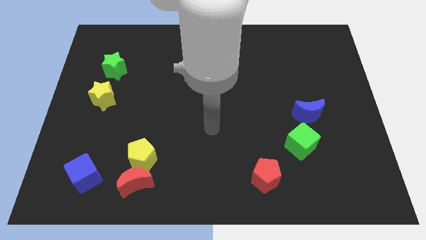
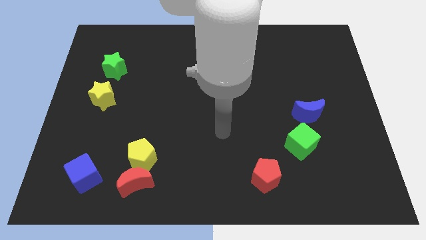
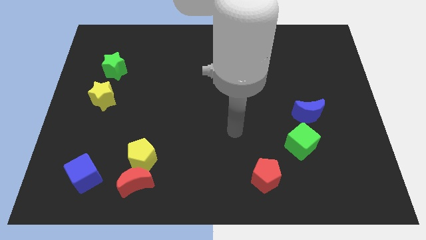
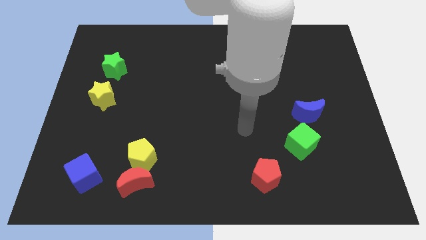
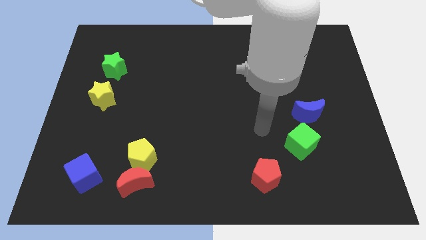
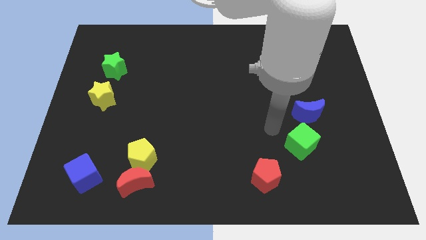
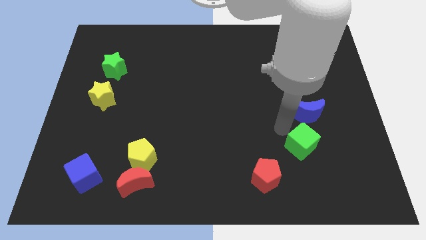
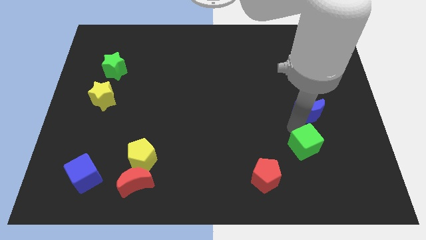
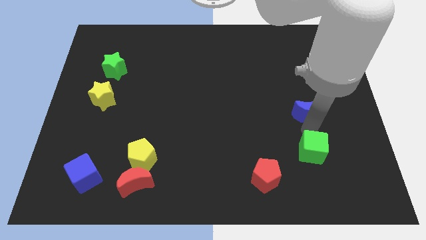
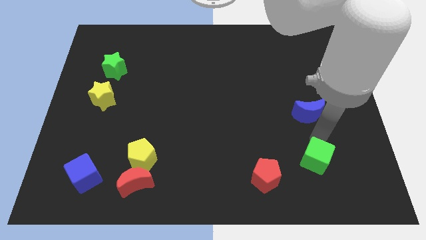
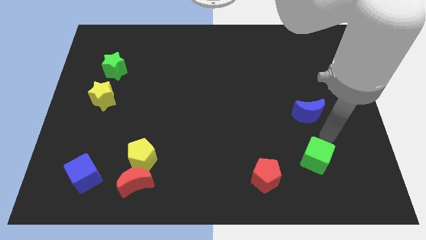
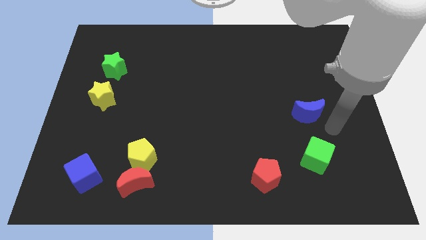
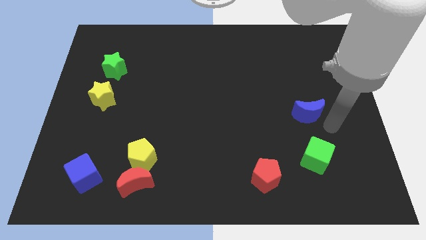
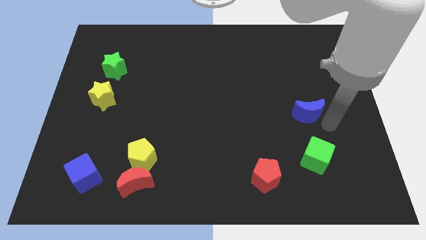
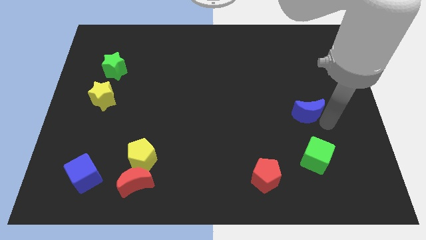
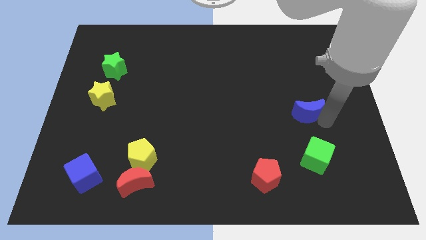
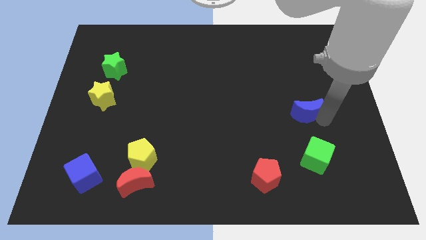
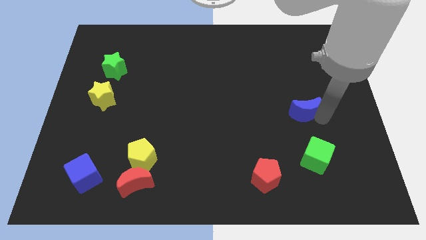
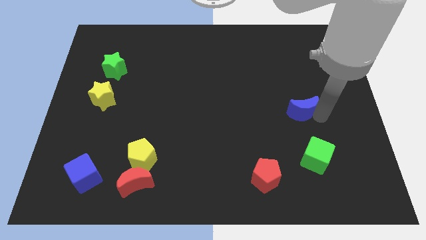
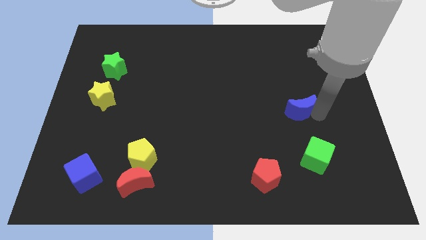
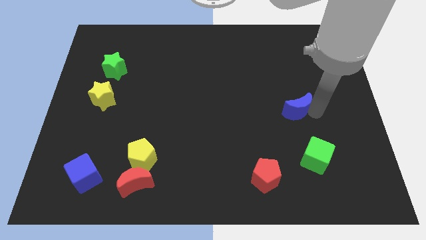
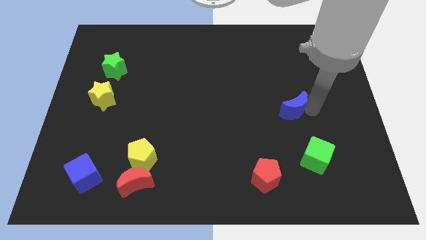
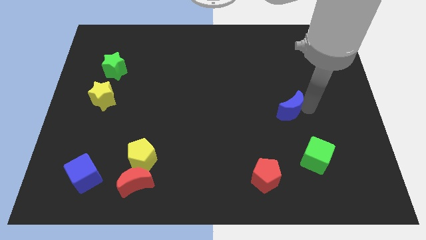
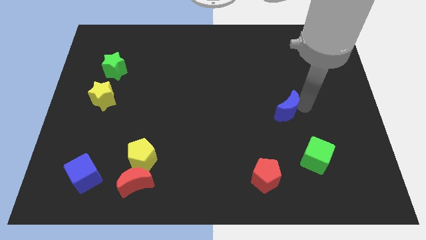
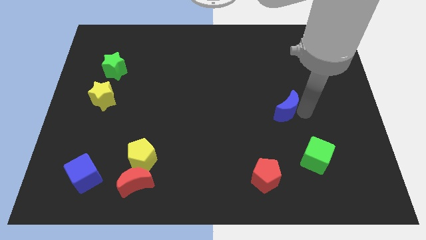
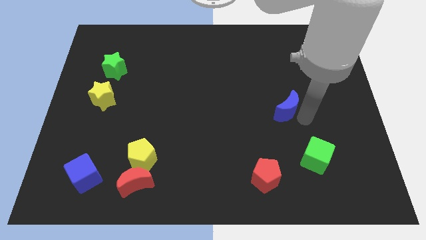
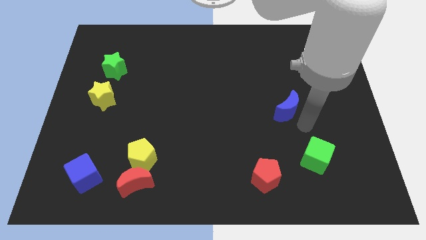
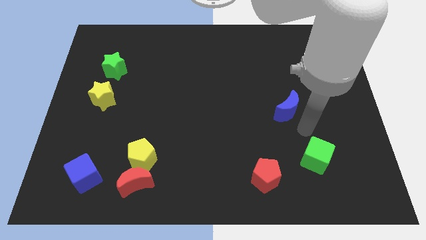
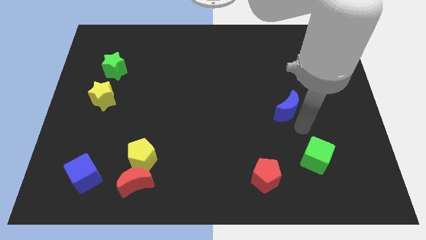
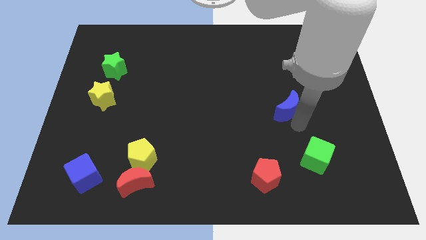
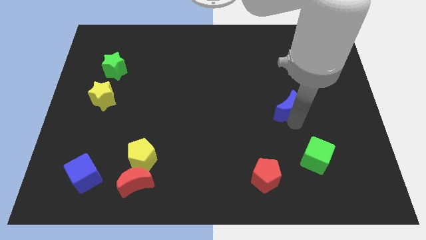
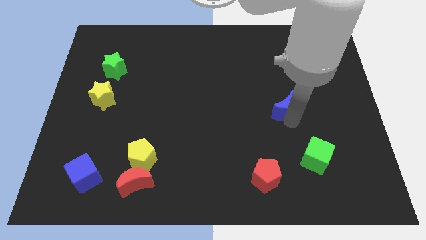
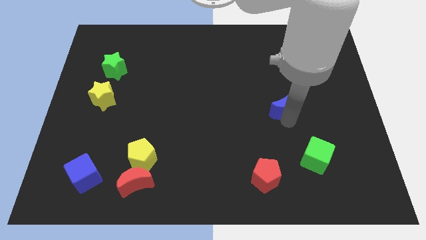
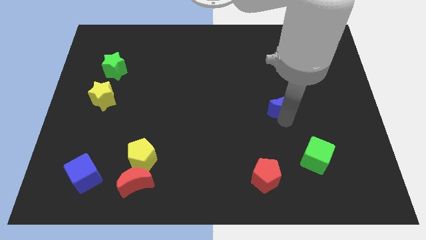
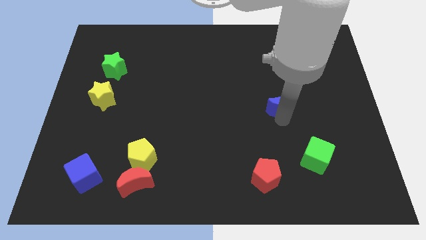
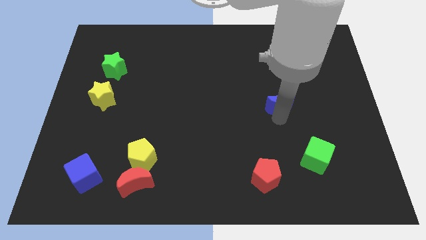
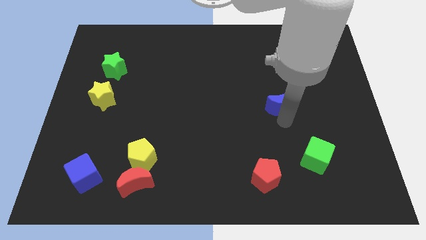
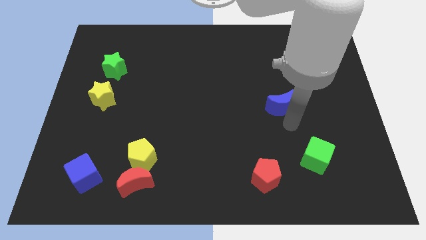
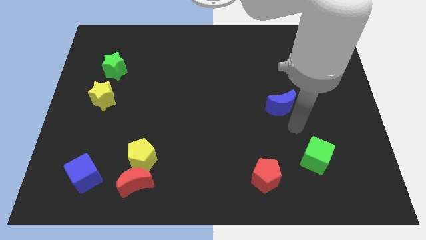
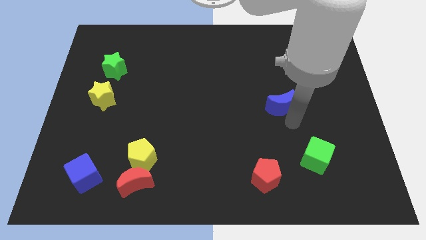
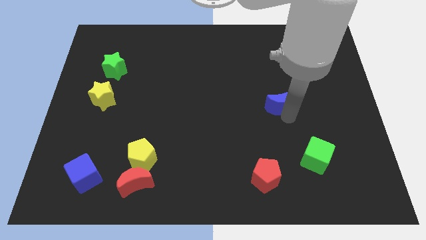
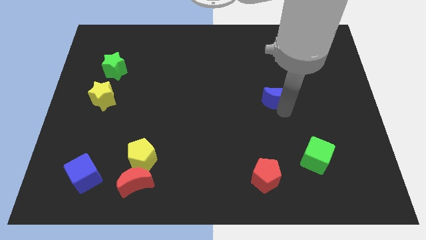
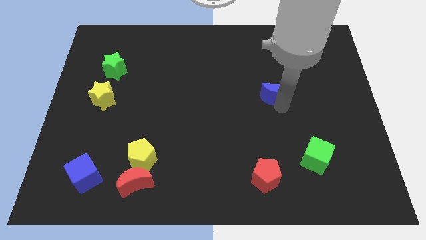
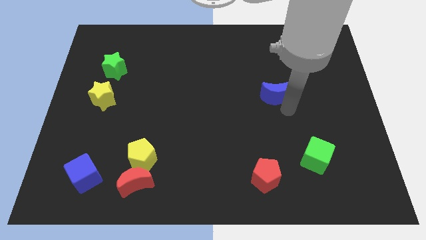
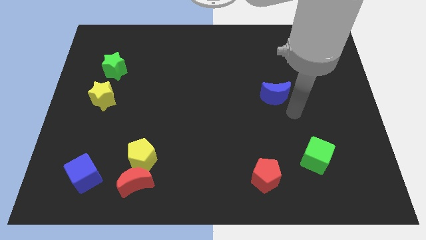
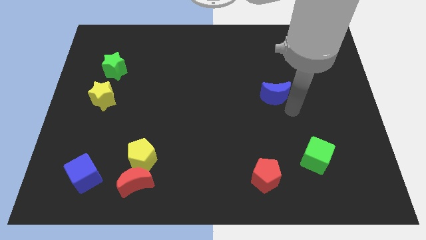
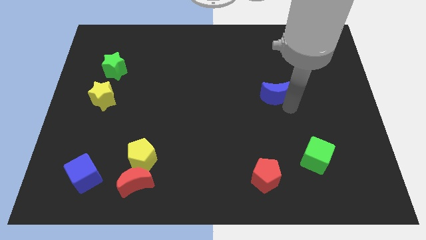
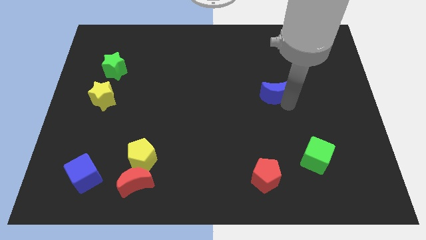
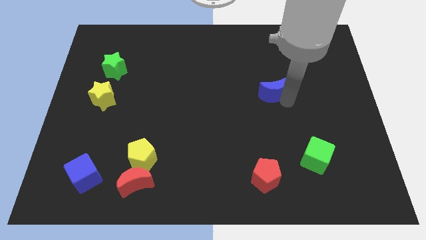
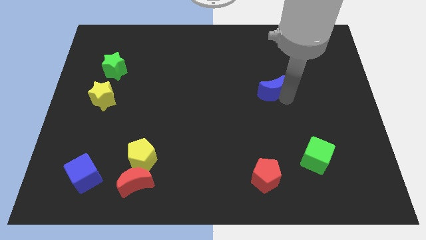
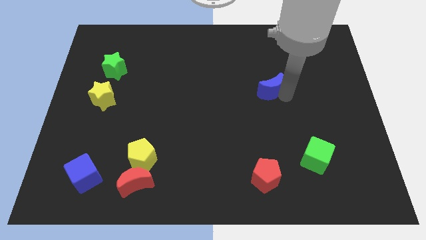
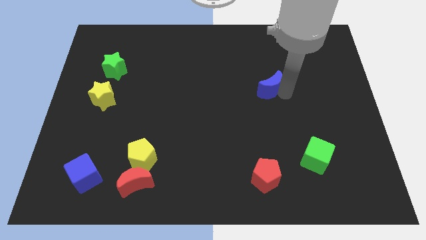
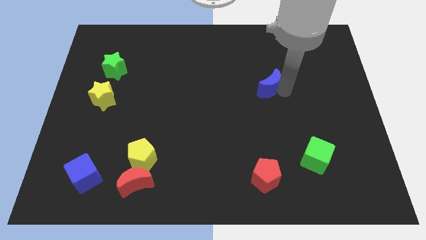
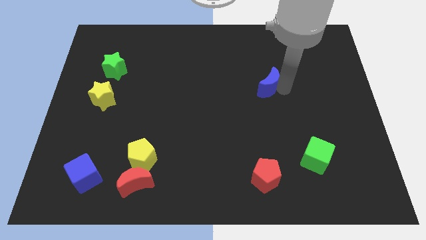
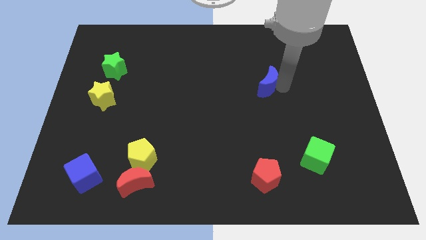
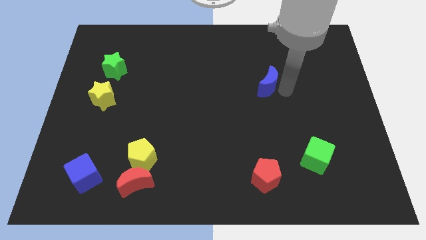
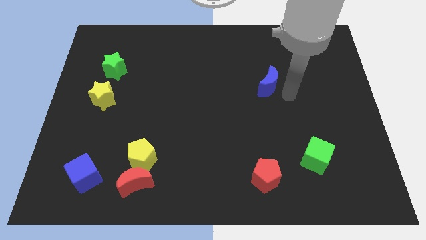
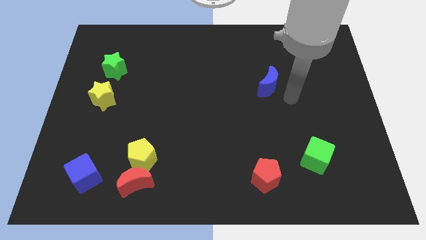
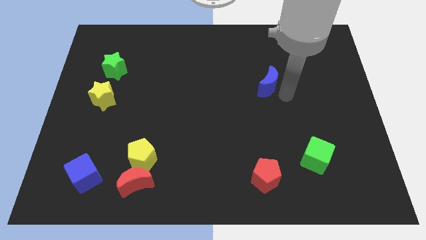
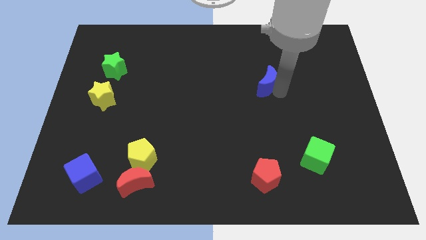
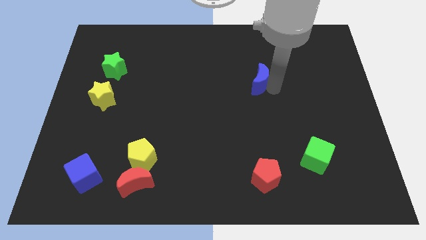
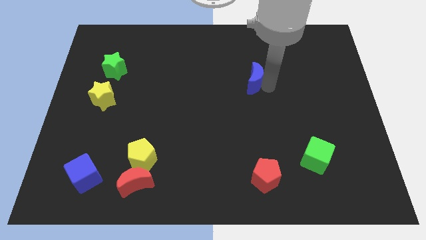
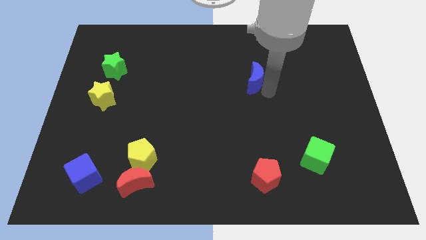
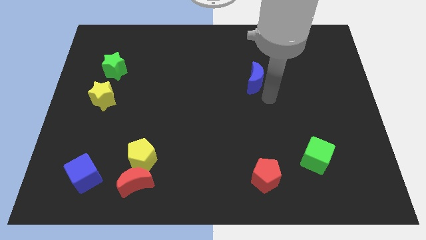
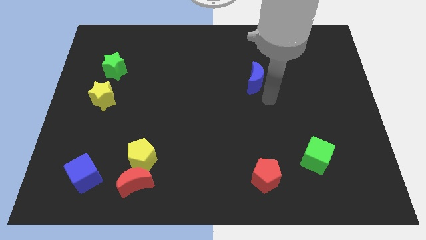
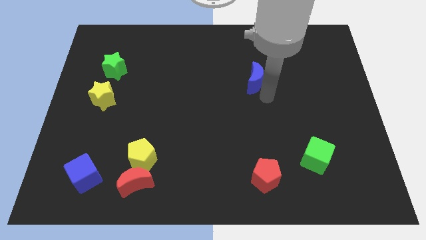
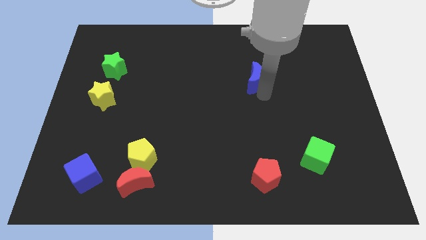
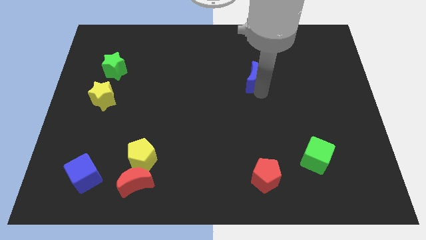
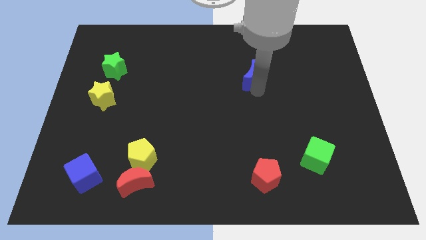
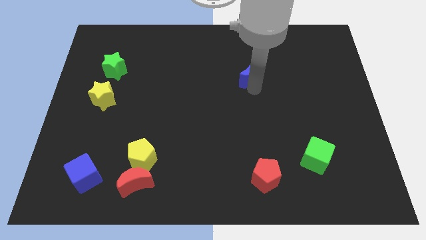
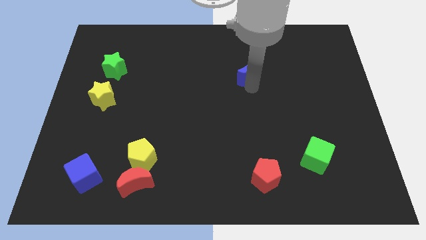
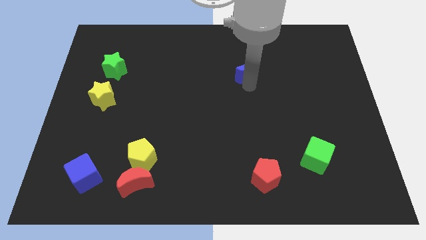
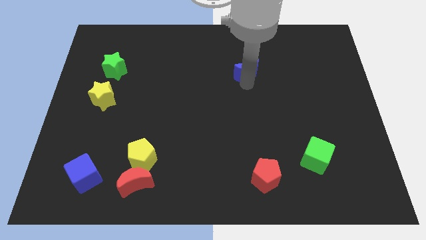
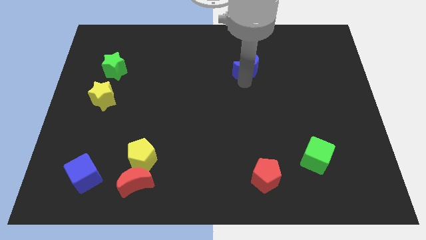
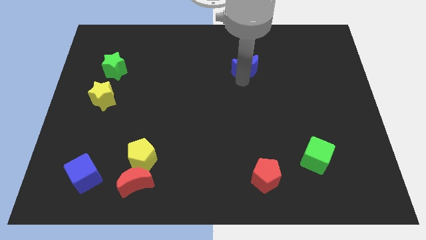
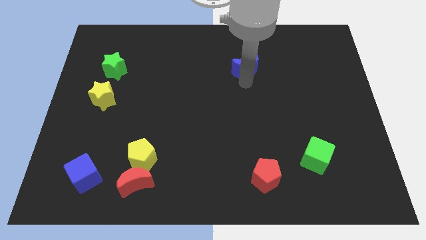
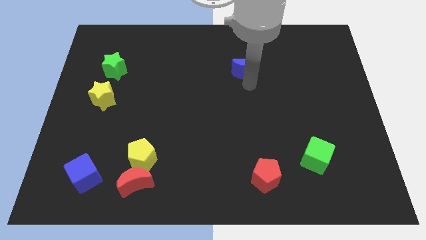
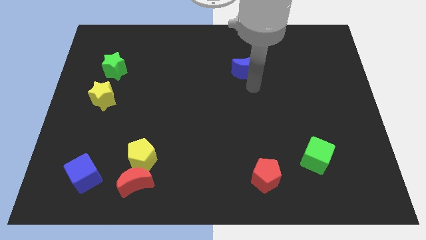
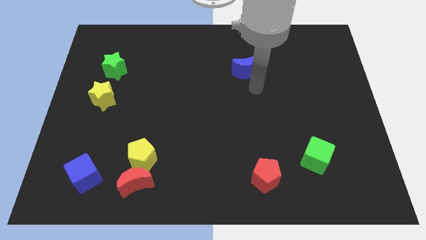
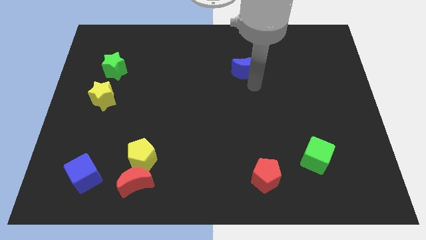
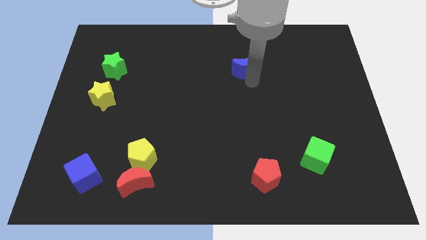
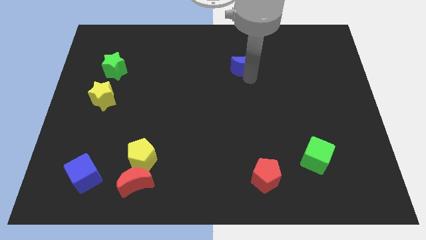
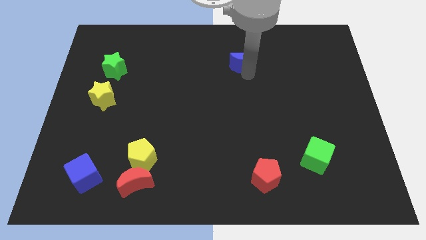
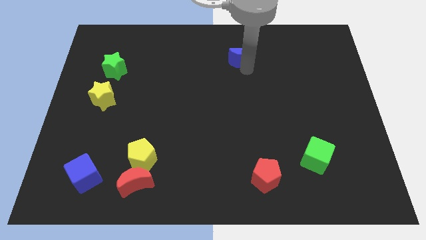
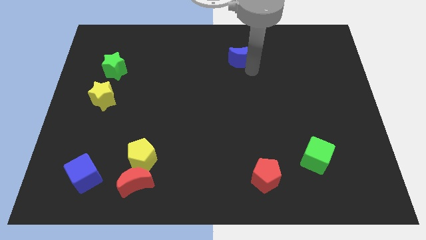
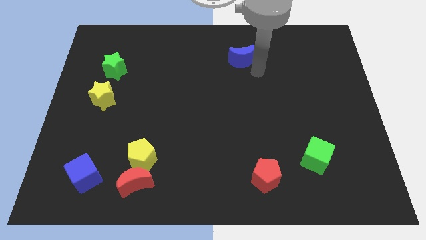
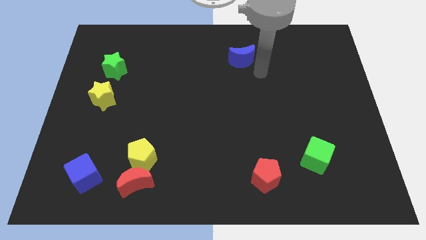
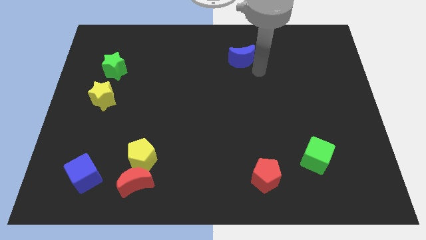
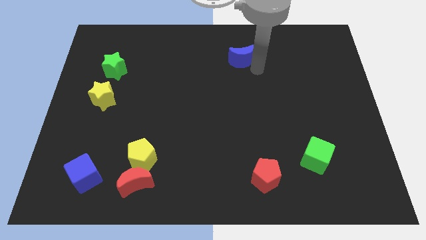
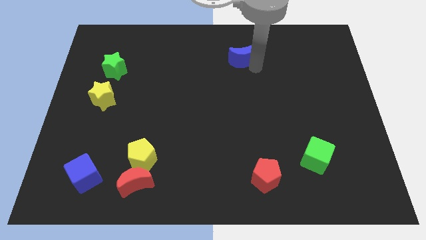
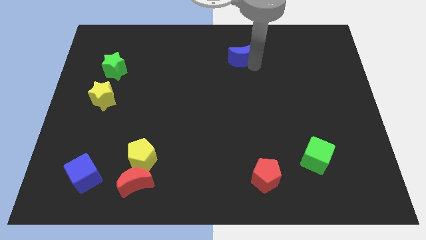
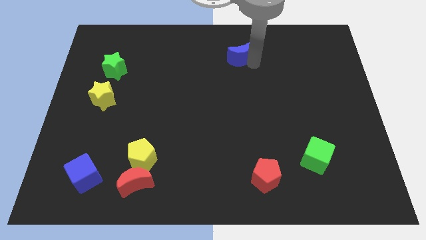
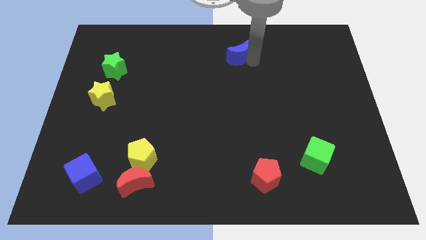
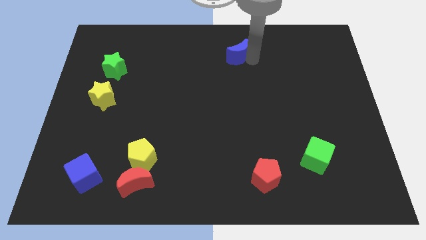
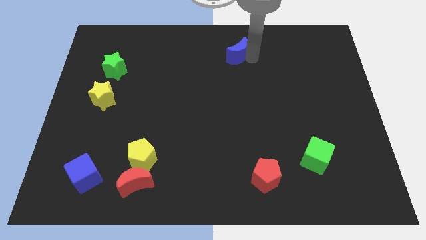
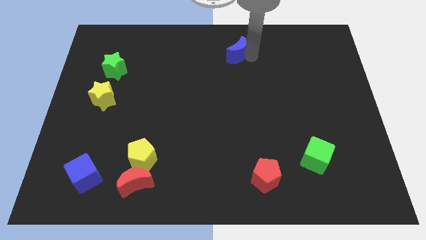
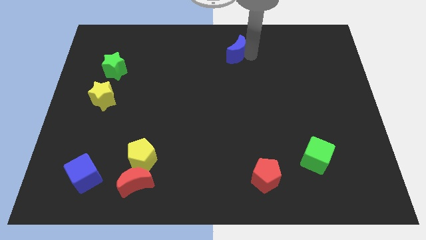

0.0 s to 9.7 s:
put the blue moon to the towards your base
